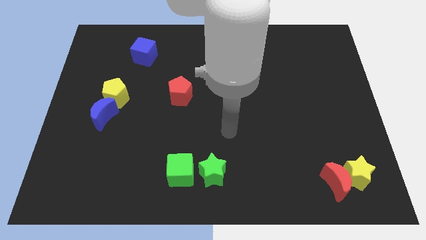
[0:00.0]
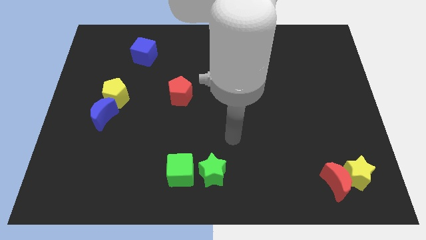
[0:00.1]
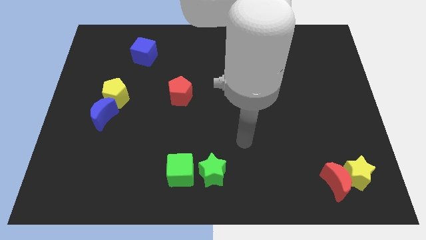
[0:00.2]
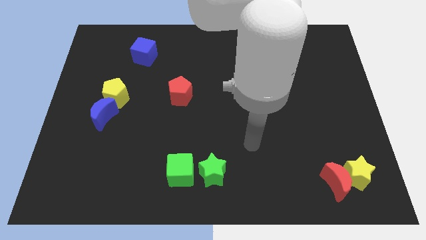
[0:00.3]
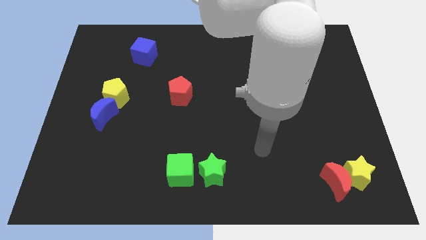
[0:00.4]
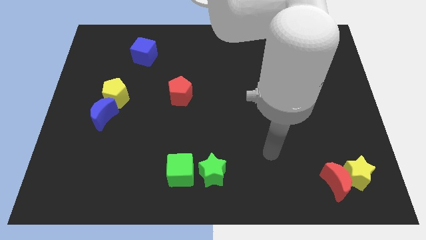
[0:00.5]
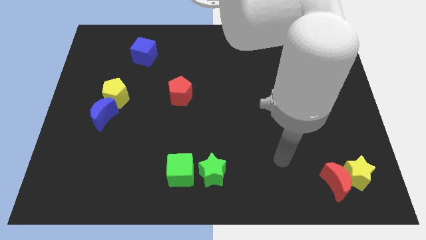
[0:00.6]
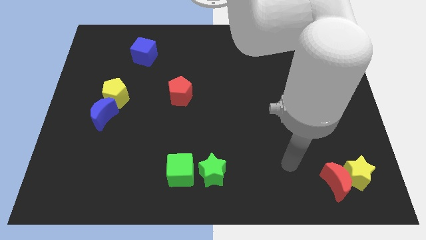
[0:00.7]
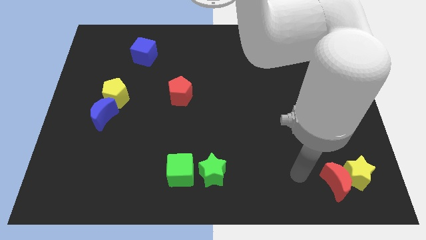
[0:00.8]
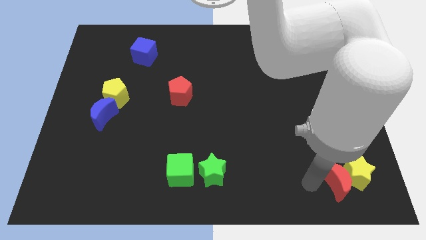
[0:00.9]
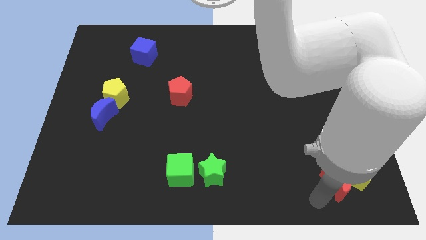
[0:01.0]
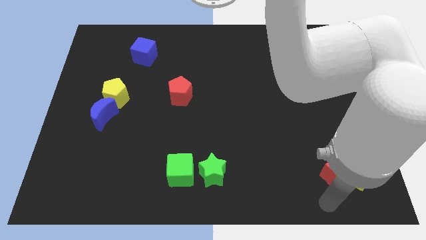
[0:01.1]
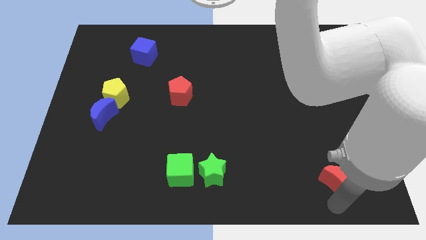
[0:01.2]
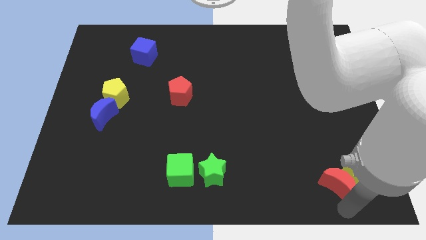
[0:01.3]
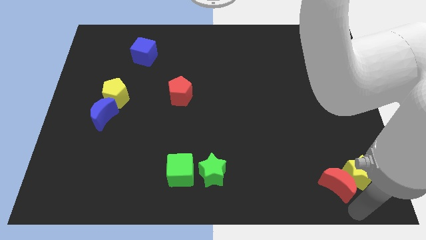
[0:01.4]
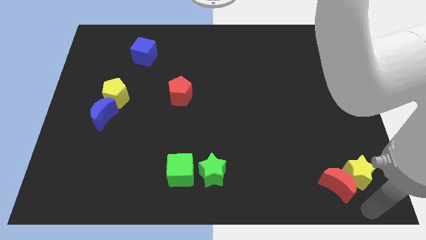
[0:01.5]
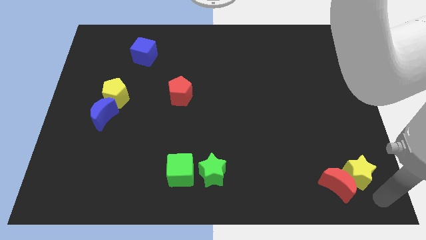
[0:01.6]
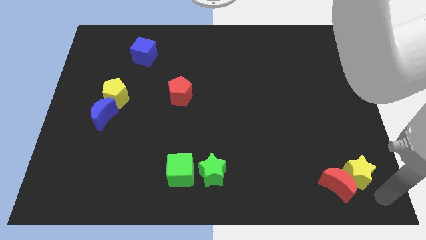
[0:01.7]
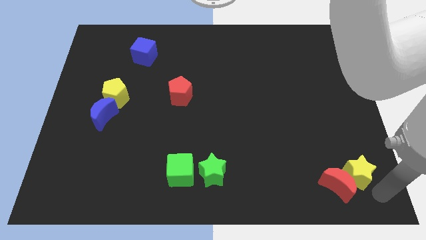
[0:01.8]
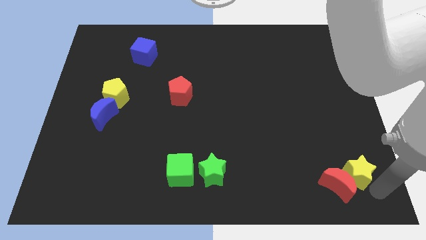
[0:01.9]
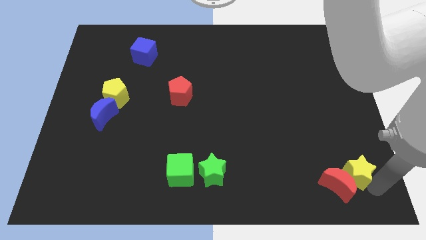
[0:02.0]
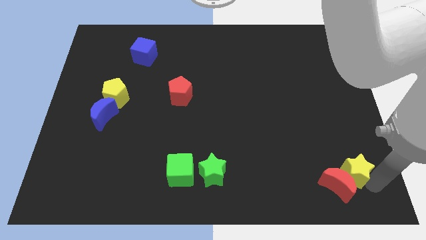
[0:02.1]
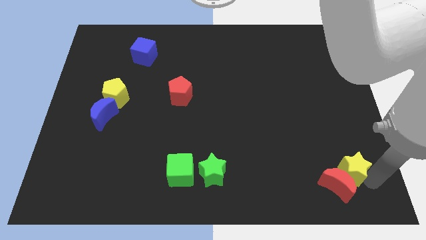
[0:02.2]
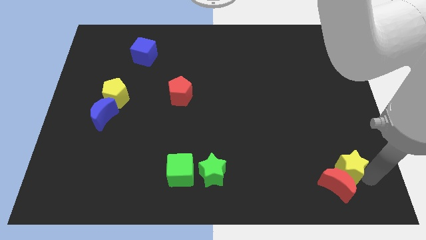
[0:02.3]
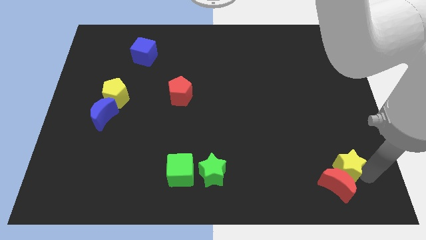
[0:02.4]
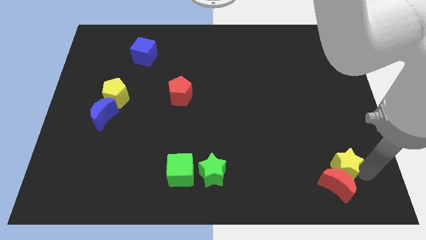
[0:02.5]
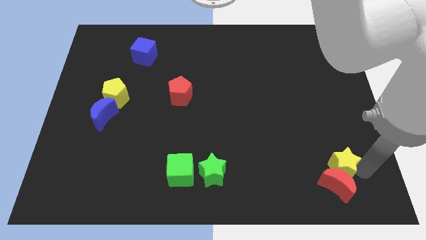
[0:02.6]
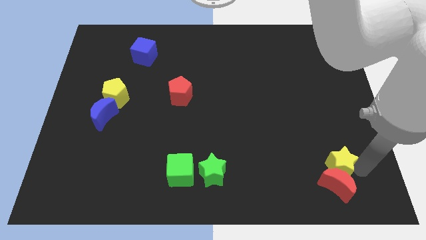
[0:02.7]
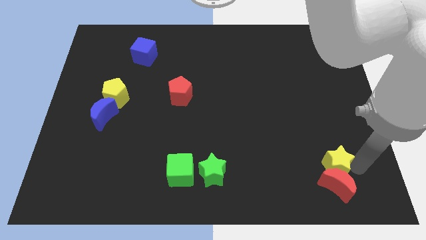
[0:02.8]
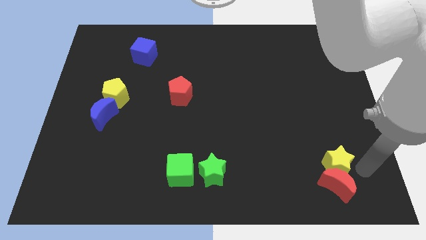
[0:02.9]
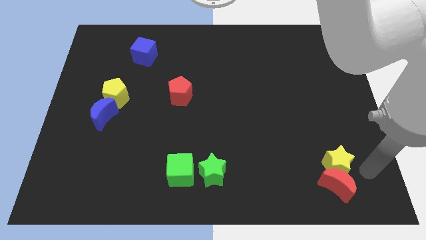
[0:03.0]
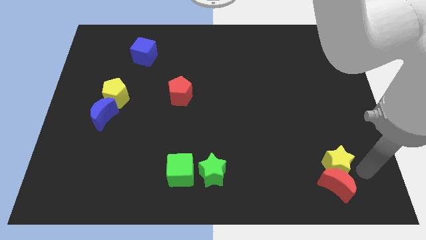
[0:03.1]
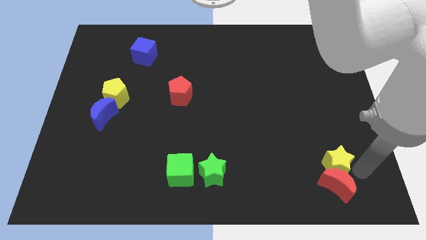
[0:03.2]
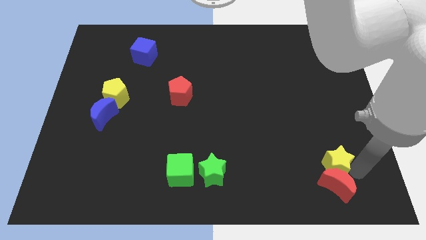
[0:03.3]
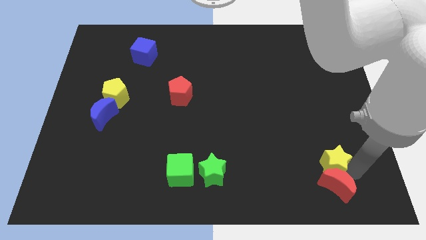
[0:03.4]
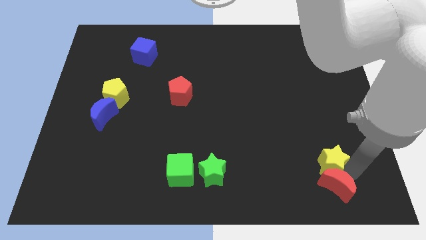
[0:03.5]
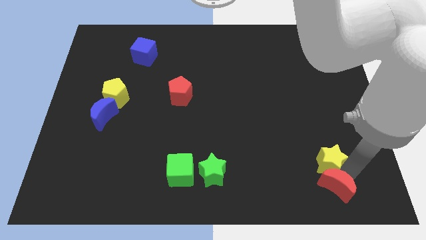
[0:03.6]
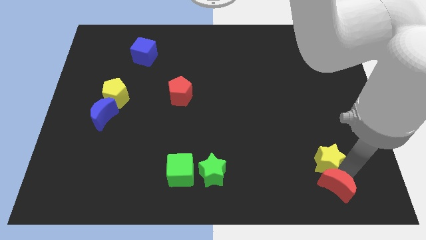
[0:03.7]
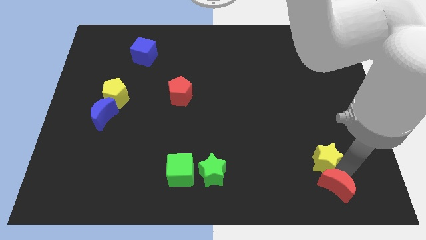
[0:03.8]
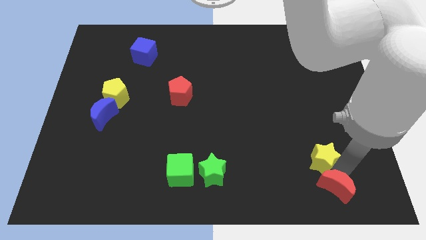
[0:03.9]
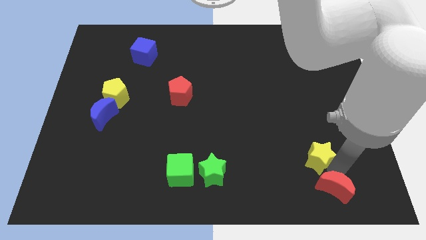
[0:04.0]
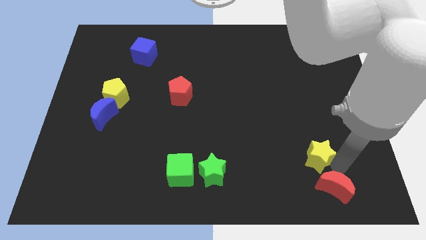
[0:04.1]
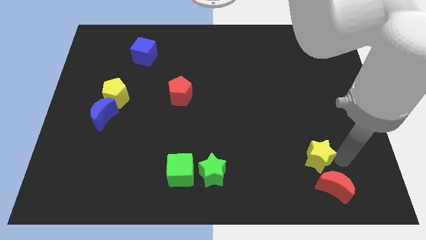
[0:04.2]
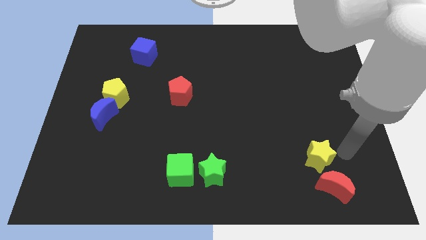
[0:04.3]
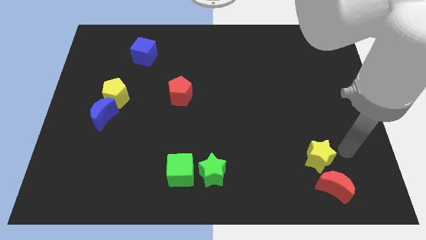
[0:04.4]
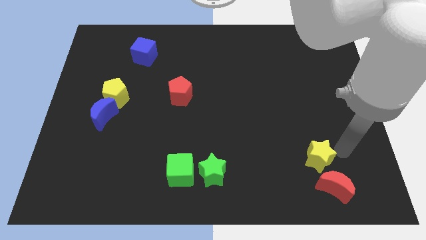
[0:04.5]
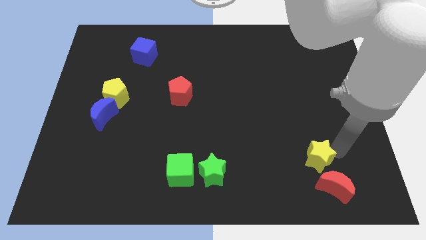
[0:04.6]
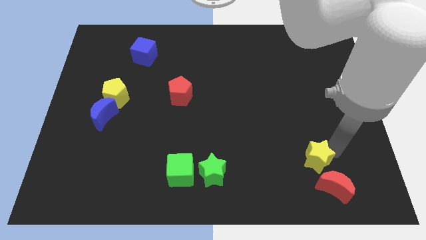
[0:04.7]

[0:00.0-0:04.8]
push the yellow star to the left somewhat

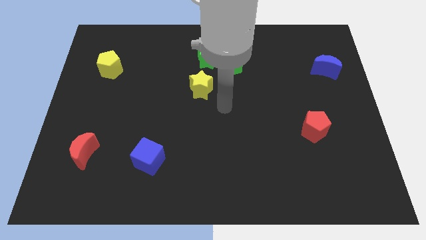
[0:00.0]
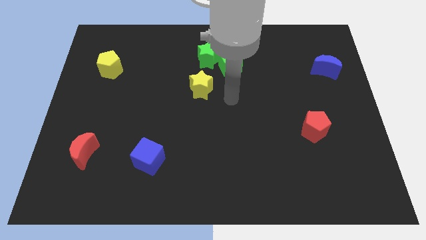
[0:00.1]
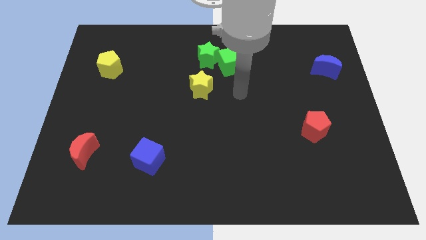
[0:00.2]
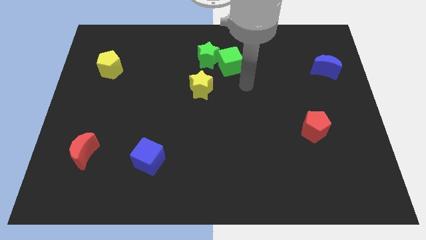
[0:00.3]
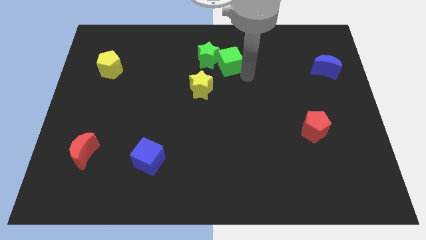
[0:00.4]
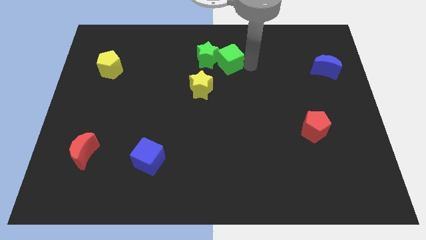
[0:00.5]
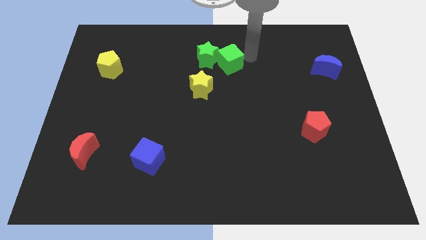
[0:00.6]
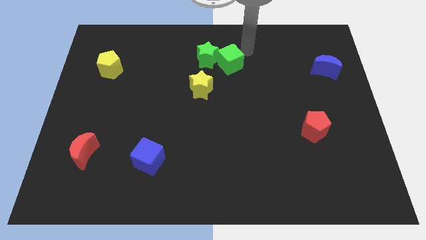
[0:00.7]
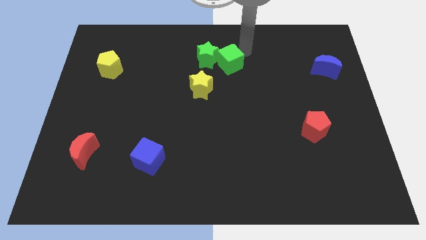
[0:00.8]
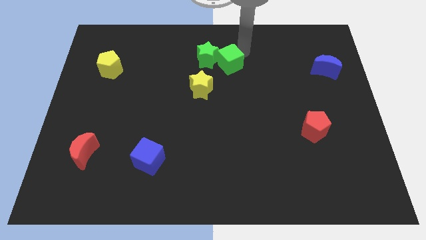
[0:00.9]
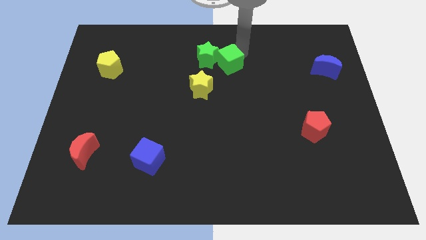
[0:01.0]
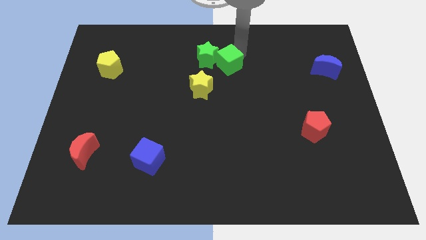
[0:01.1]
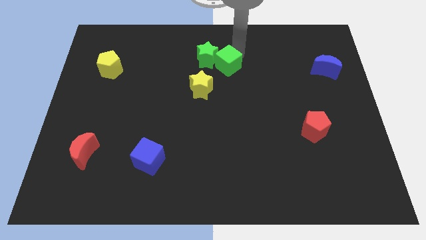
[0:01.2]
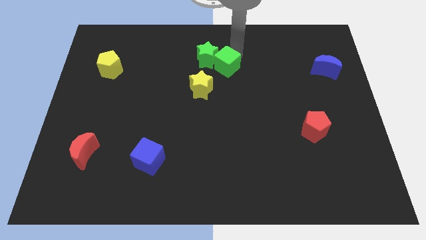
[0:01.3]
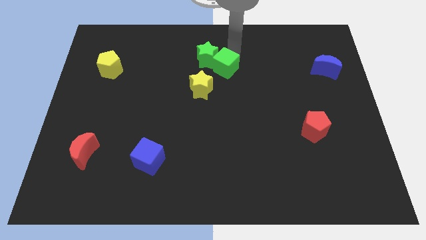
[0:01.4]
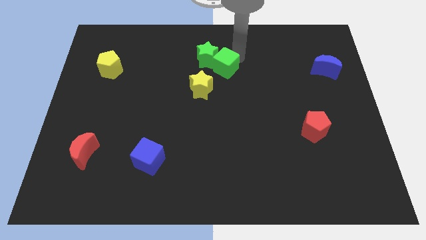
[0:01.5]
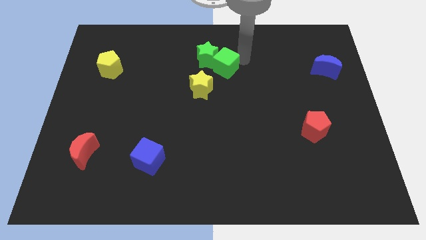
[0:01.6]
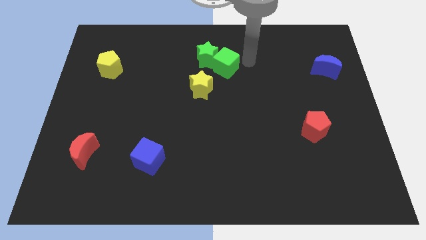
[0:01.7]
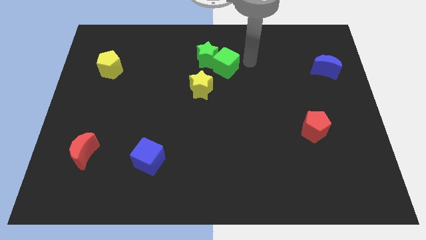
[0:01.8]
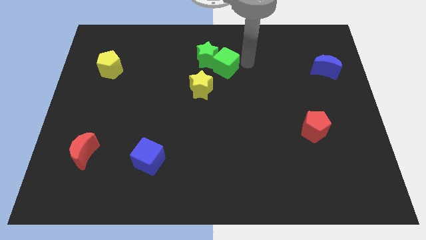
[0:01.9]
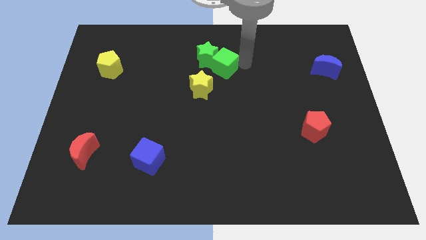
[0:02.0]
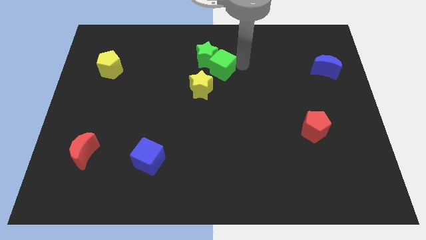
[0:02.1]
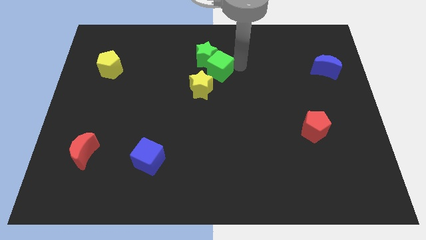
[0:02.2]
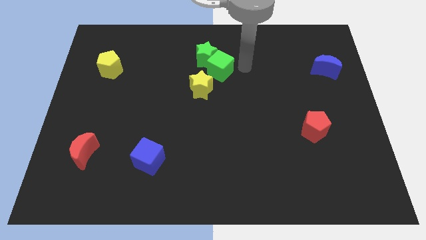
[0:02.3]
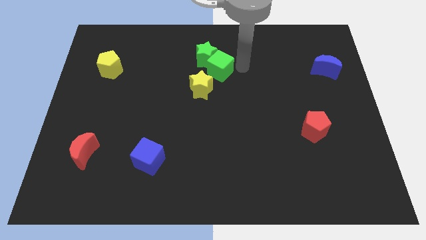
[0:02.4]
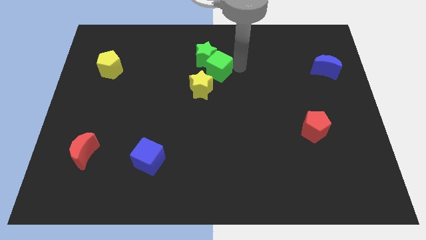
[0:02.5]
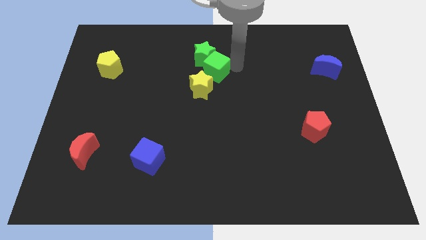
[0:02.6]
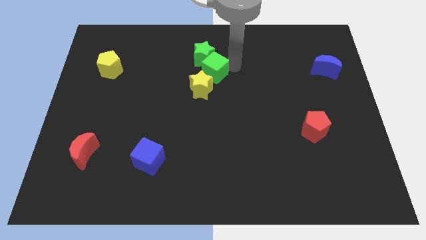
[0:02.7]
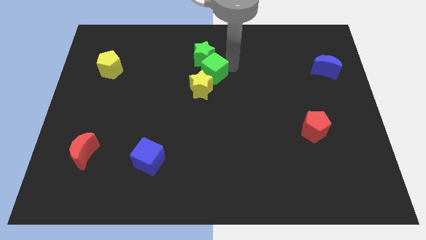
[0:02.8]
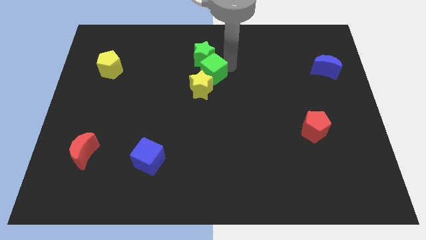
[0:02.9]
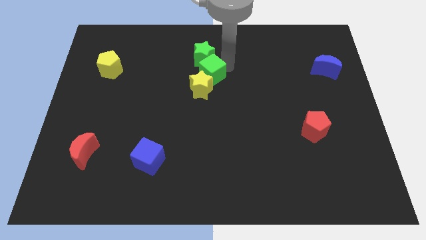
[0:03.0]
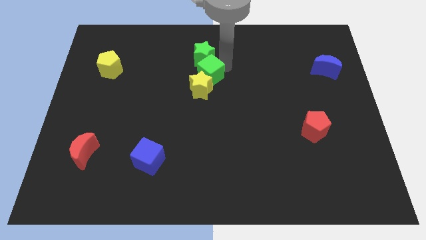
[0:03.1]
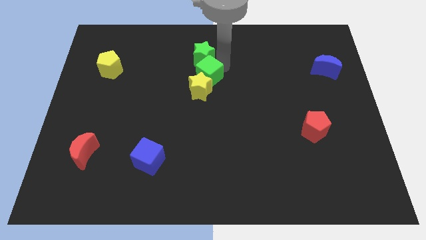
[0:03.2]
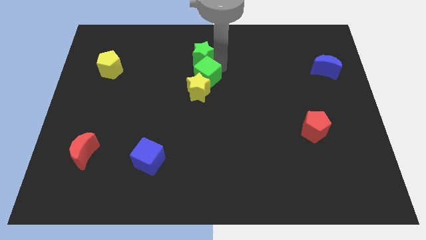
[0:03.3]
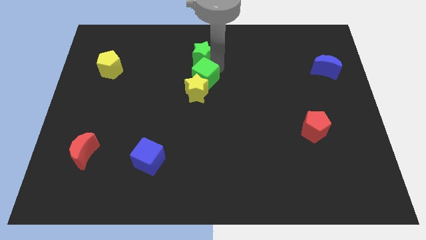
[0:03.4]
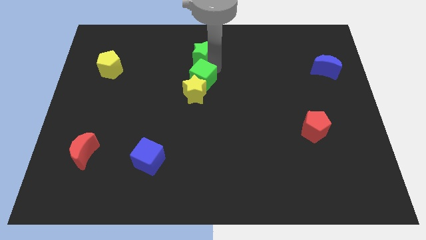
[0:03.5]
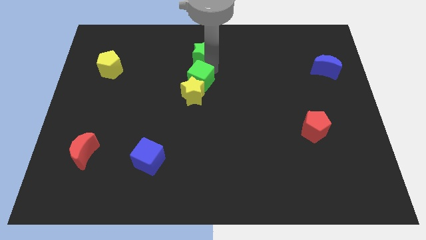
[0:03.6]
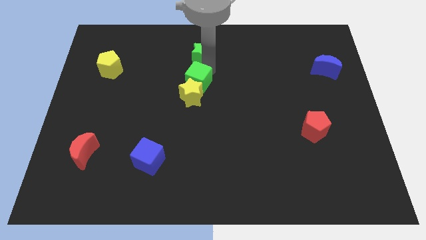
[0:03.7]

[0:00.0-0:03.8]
push the green cube to the left a little bit
